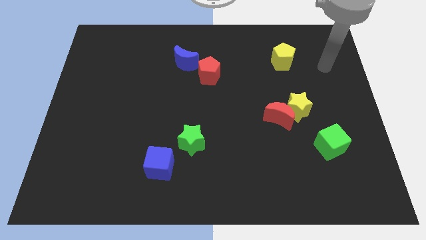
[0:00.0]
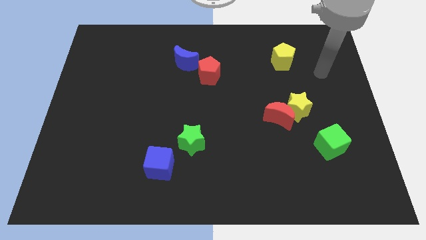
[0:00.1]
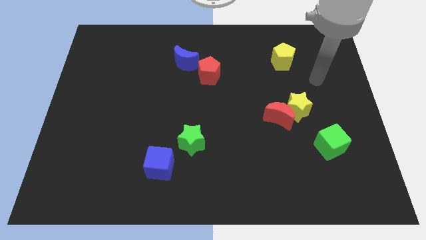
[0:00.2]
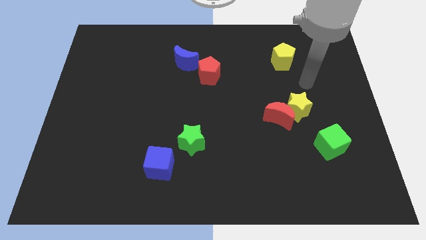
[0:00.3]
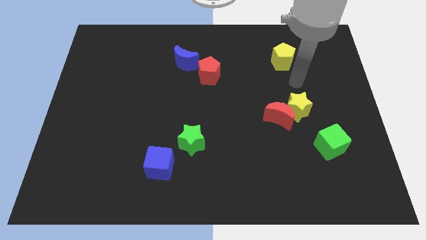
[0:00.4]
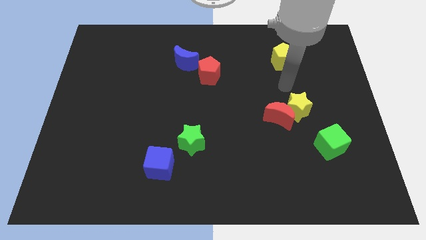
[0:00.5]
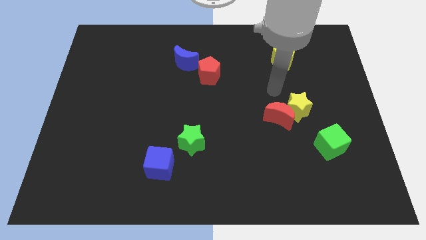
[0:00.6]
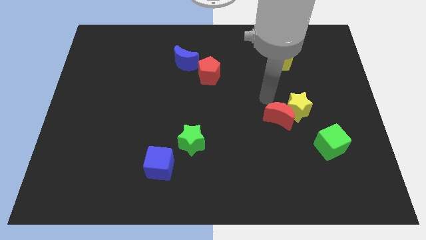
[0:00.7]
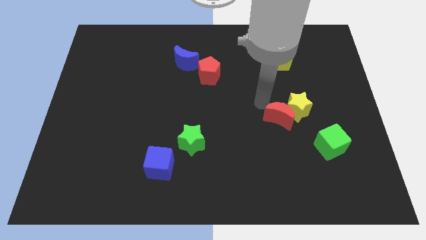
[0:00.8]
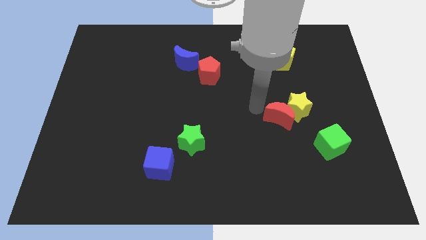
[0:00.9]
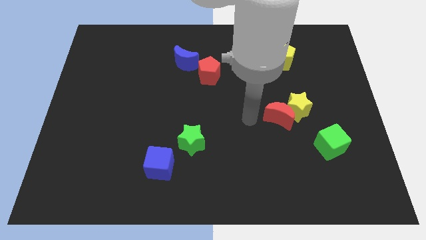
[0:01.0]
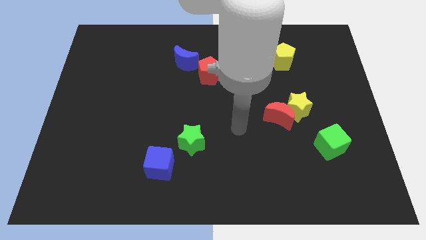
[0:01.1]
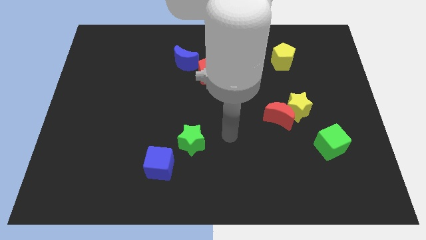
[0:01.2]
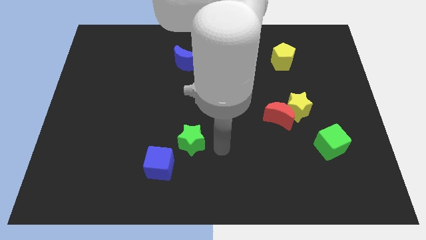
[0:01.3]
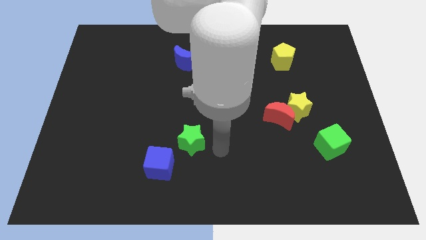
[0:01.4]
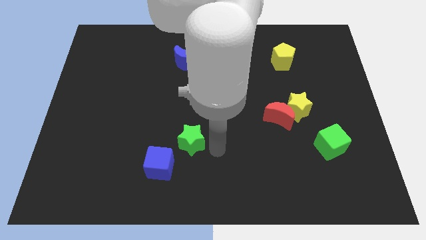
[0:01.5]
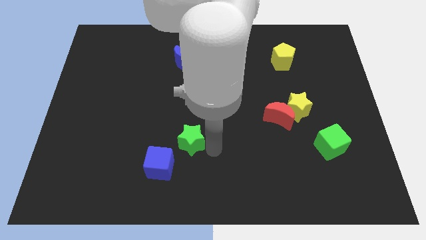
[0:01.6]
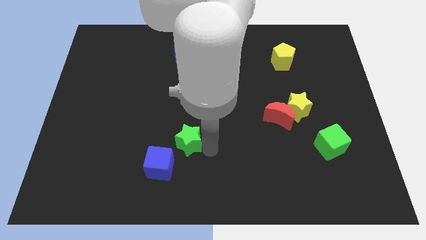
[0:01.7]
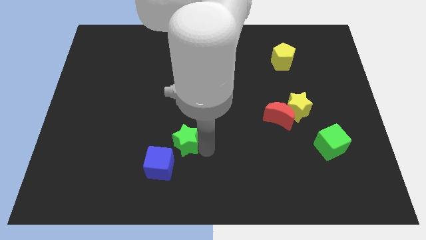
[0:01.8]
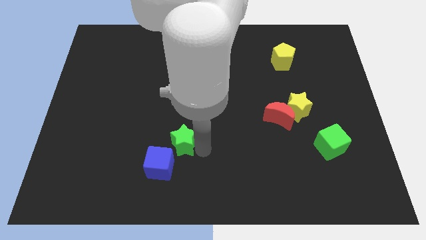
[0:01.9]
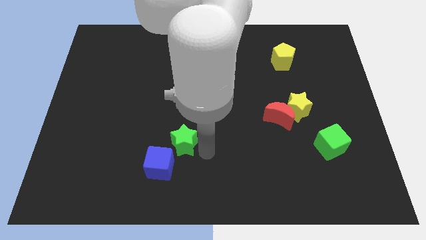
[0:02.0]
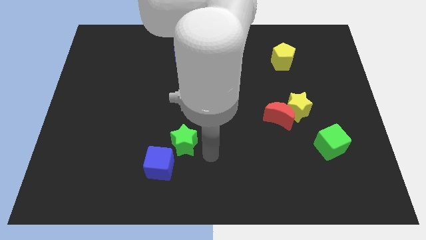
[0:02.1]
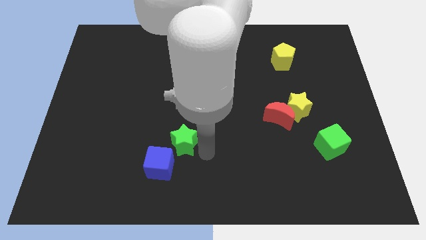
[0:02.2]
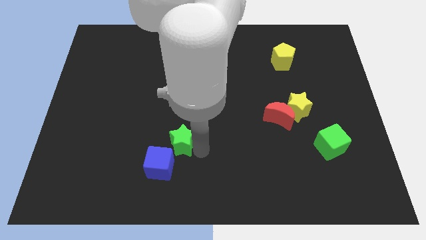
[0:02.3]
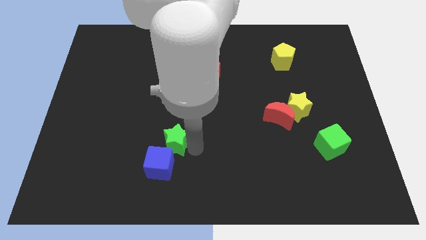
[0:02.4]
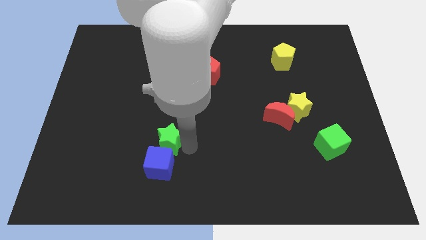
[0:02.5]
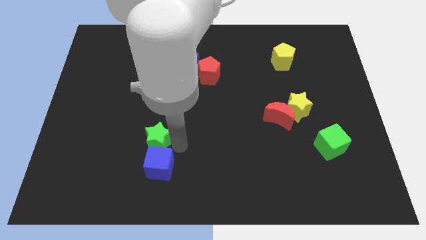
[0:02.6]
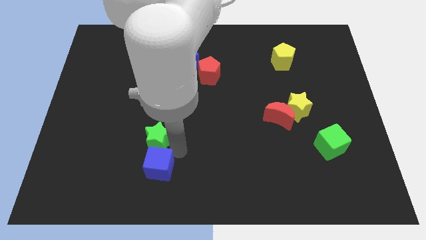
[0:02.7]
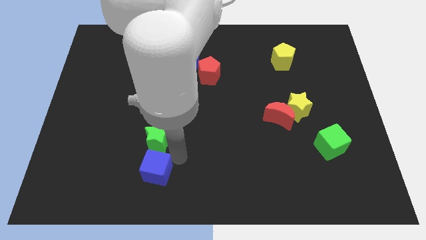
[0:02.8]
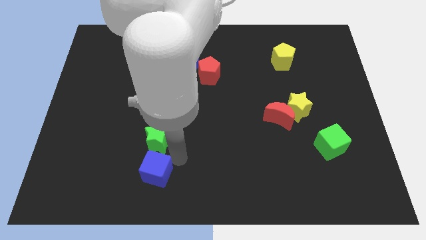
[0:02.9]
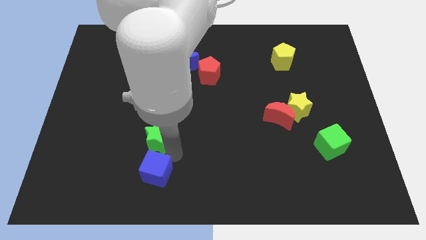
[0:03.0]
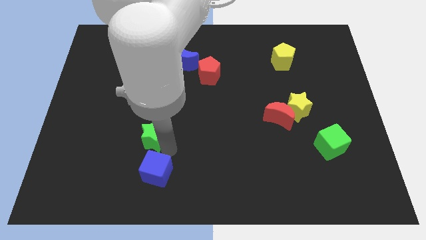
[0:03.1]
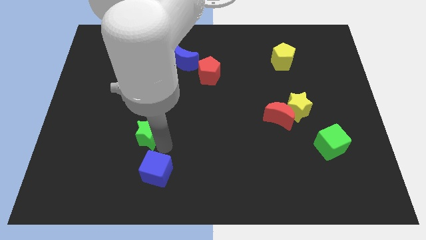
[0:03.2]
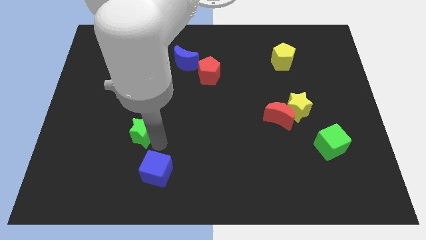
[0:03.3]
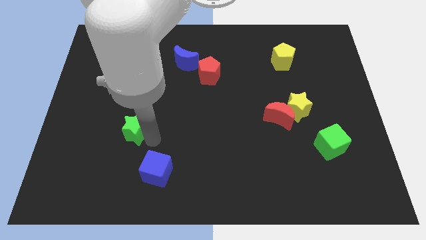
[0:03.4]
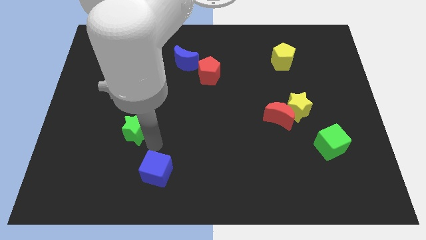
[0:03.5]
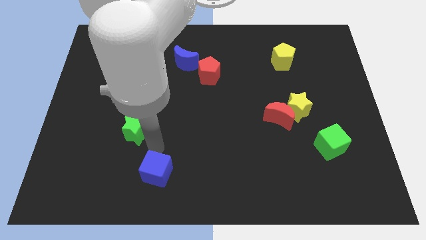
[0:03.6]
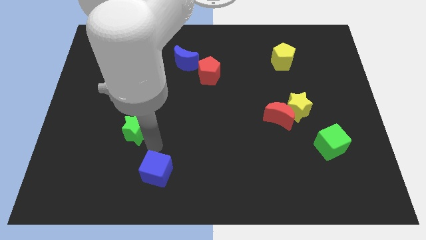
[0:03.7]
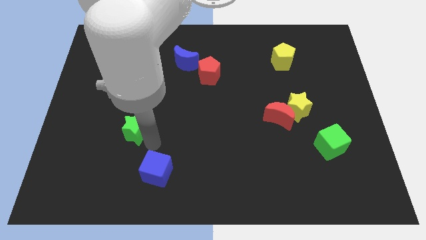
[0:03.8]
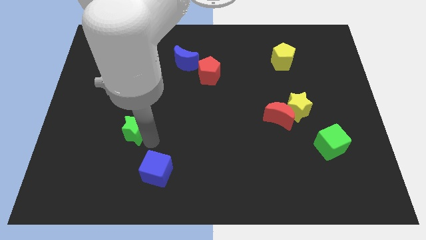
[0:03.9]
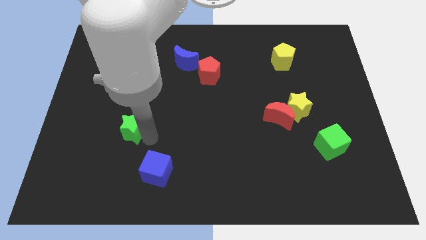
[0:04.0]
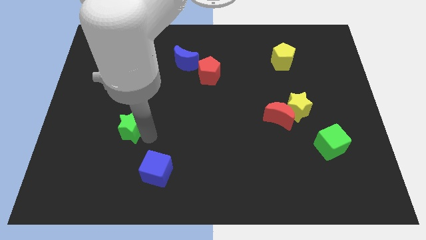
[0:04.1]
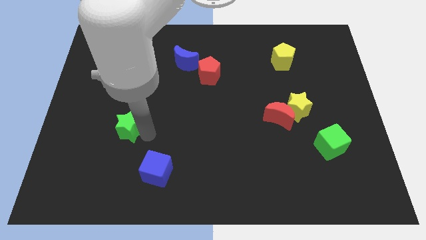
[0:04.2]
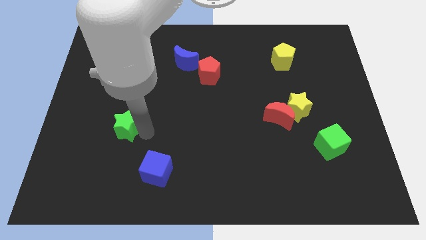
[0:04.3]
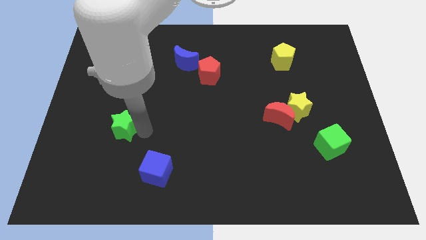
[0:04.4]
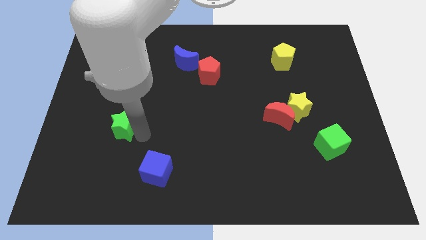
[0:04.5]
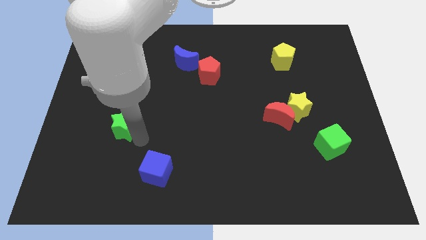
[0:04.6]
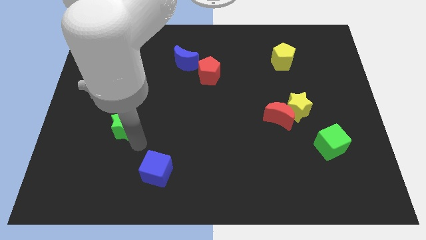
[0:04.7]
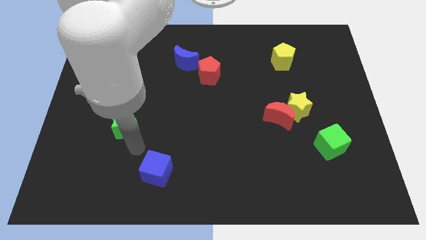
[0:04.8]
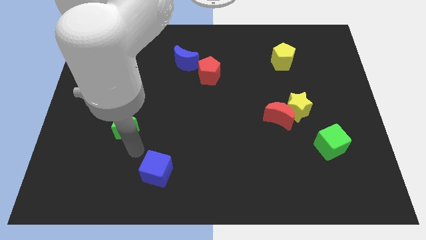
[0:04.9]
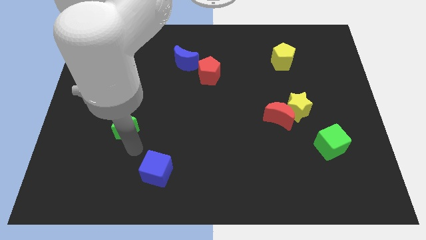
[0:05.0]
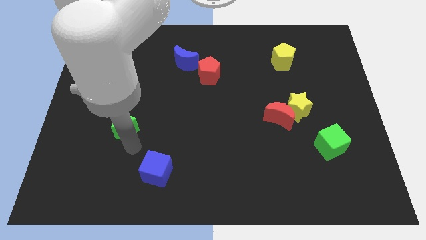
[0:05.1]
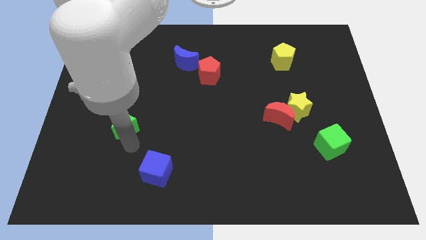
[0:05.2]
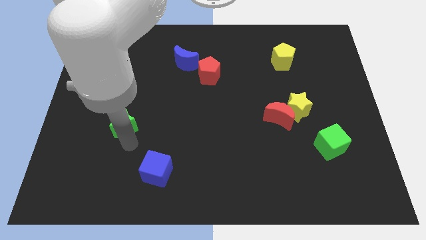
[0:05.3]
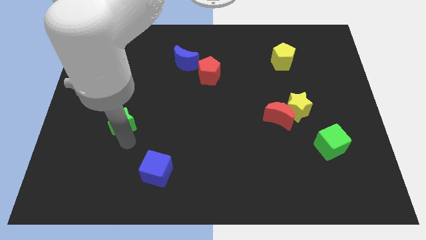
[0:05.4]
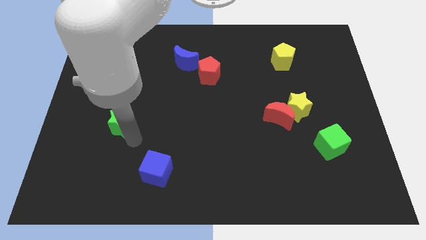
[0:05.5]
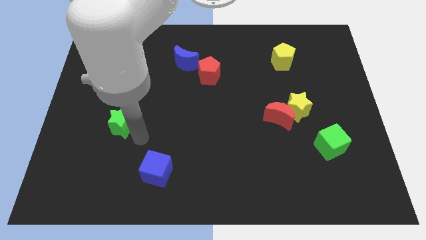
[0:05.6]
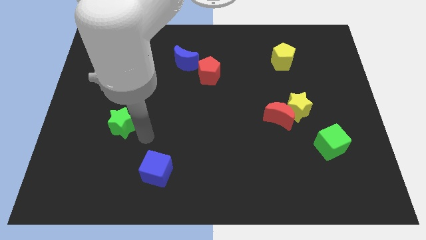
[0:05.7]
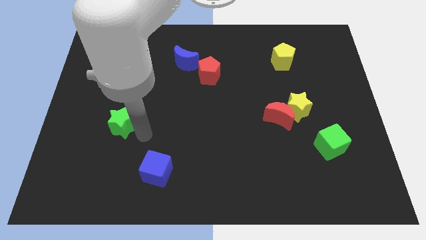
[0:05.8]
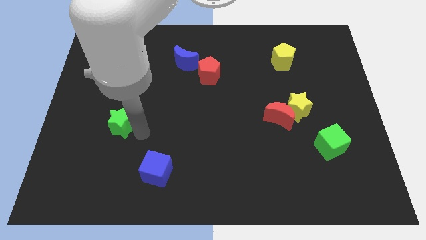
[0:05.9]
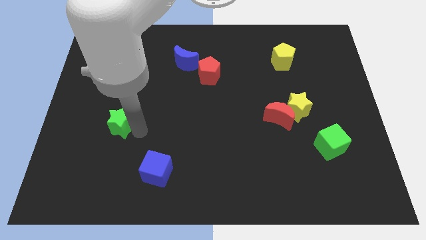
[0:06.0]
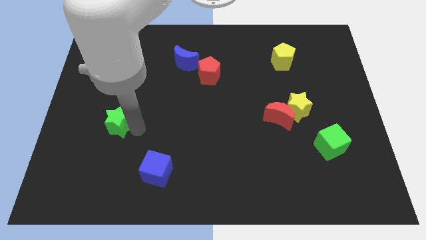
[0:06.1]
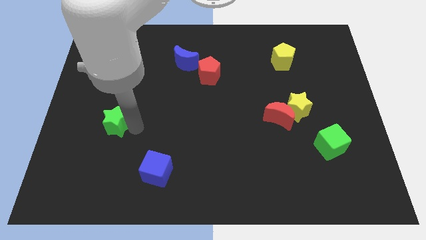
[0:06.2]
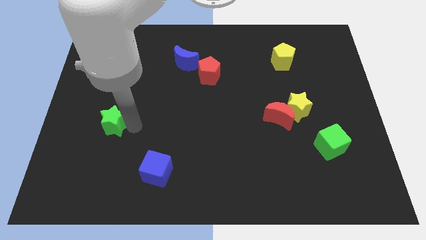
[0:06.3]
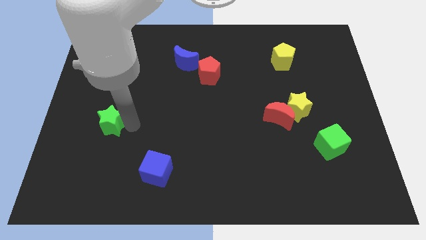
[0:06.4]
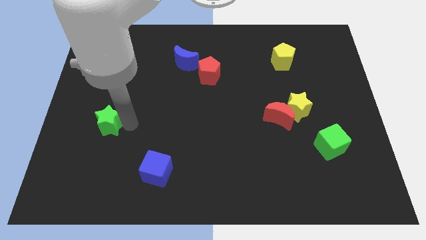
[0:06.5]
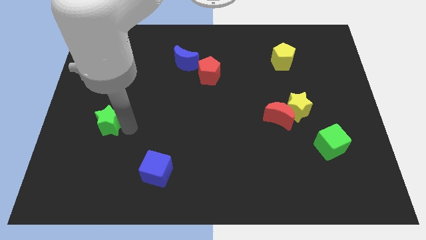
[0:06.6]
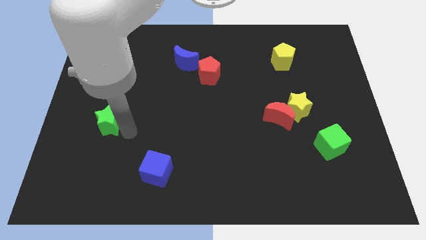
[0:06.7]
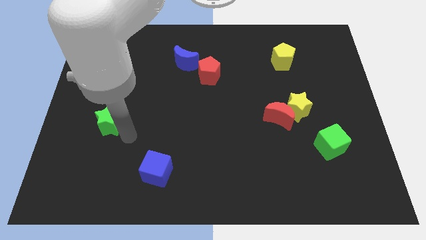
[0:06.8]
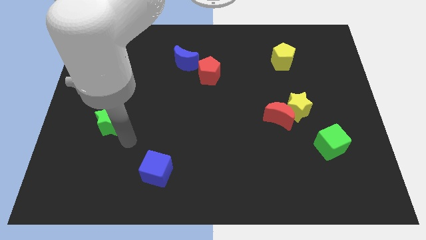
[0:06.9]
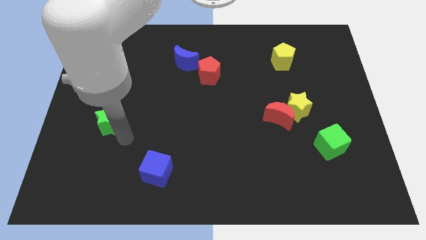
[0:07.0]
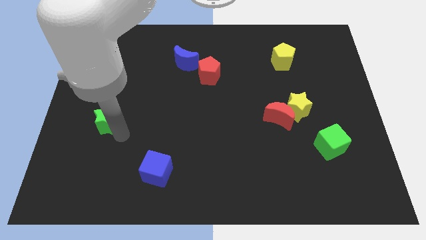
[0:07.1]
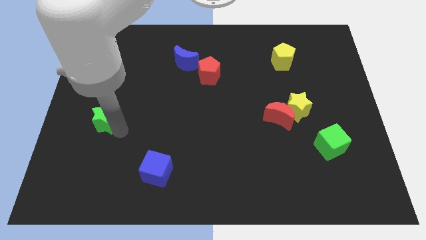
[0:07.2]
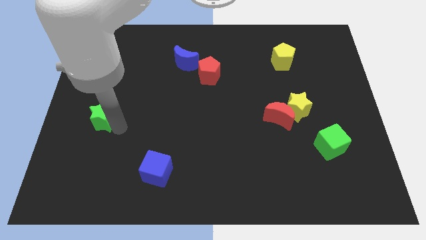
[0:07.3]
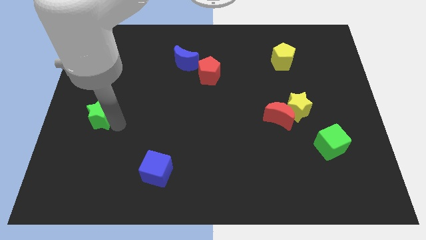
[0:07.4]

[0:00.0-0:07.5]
move the green star to the center left
